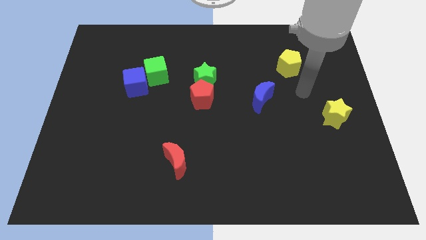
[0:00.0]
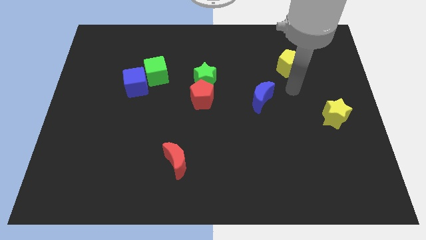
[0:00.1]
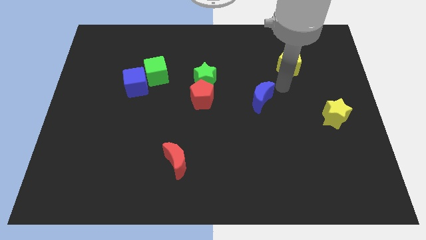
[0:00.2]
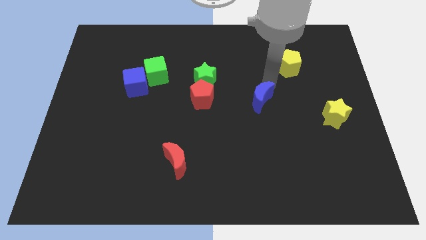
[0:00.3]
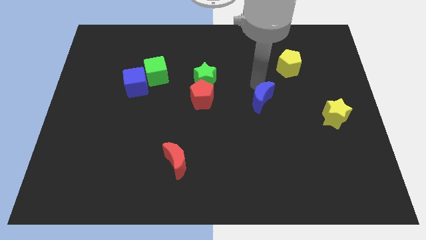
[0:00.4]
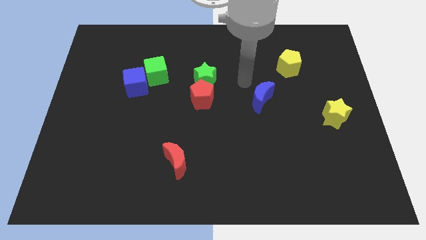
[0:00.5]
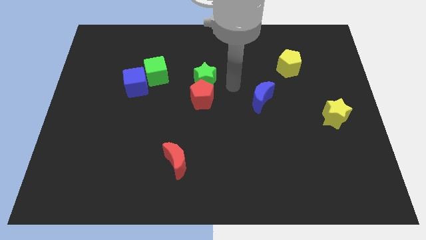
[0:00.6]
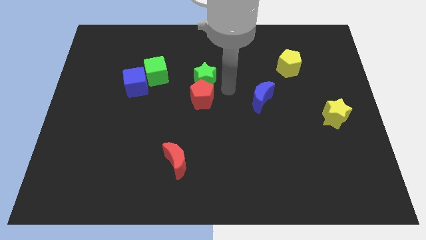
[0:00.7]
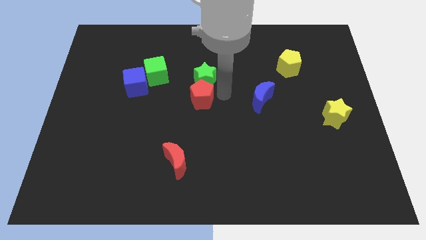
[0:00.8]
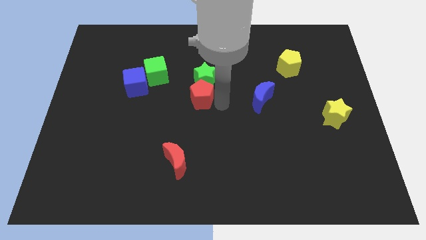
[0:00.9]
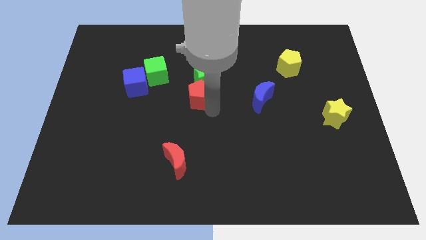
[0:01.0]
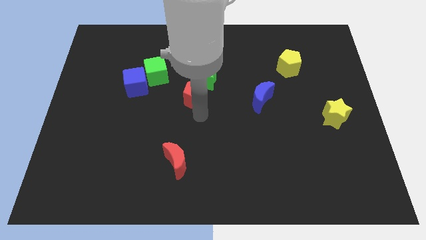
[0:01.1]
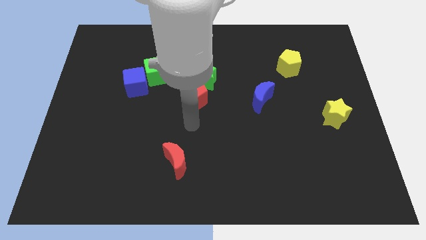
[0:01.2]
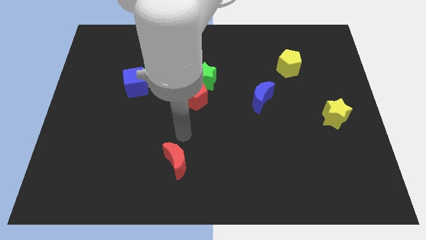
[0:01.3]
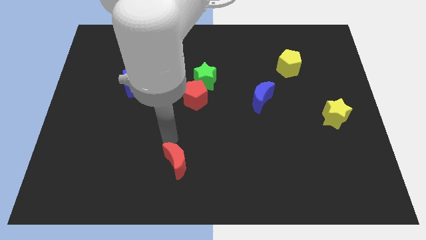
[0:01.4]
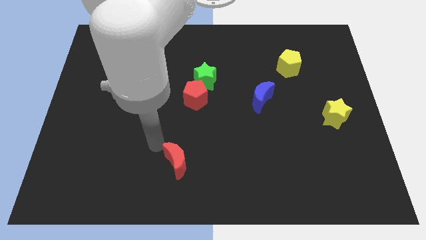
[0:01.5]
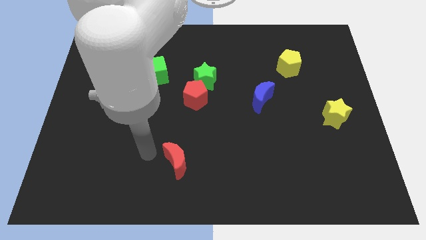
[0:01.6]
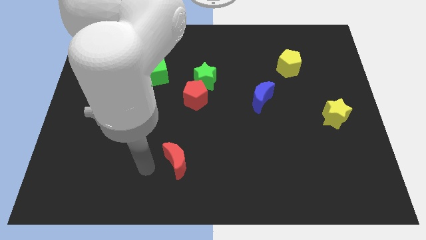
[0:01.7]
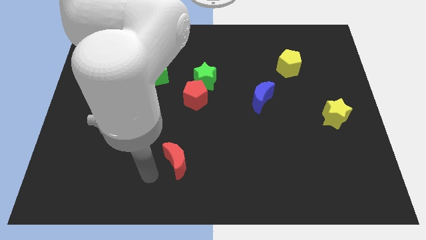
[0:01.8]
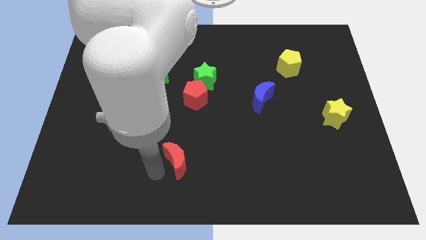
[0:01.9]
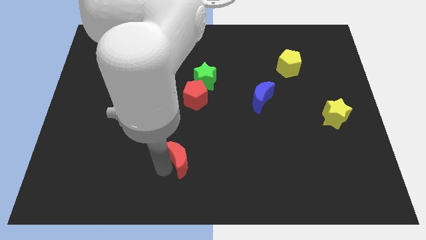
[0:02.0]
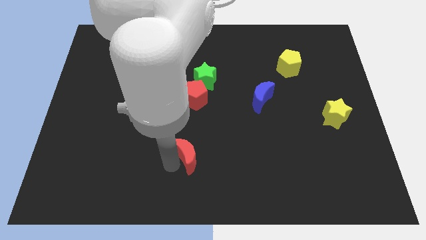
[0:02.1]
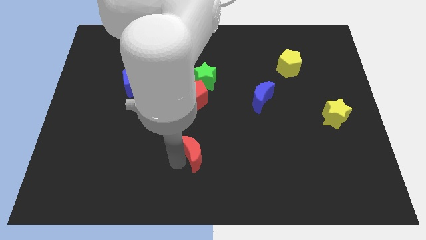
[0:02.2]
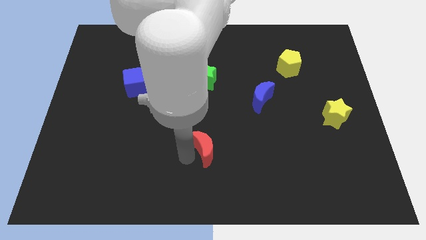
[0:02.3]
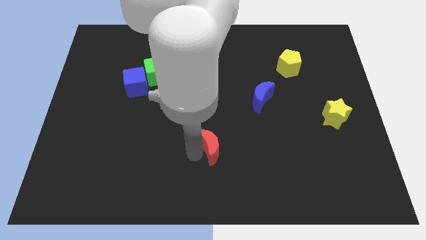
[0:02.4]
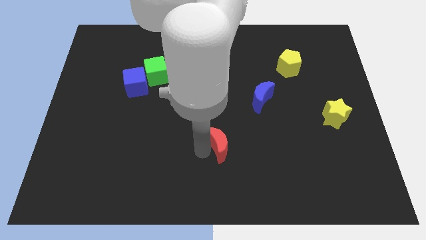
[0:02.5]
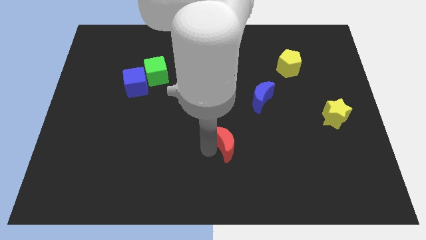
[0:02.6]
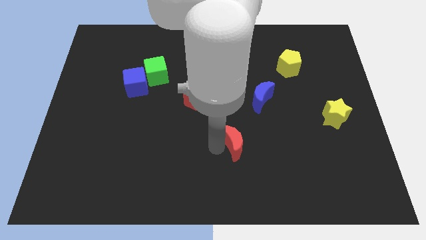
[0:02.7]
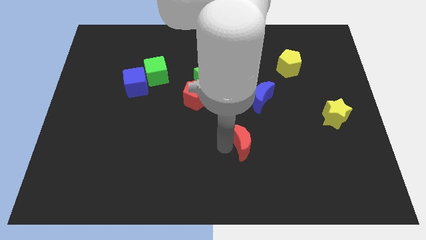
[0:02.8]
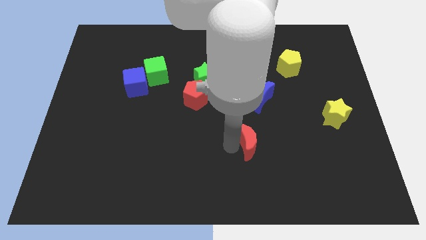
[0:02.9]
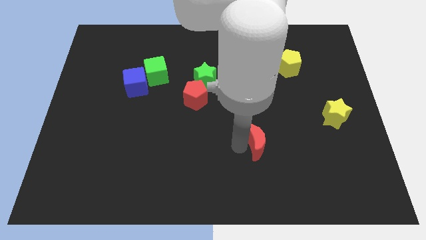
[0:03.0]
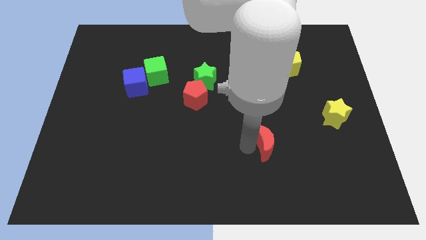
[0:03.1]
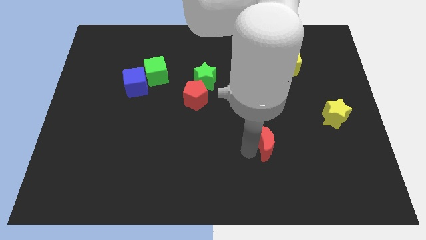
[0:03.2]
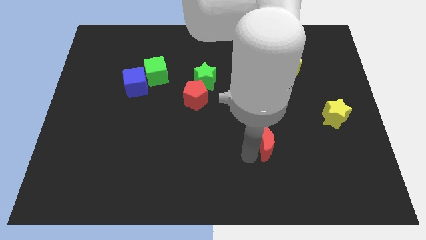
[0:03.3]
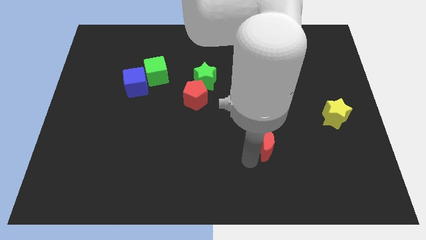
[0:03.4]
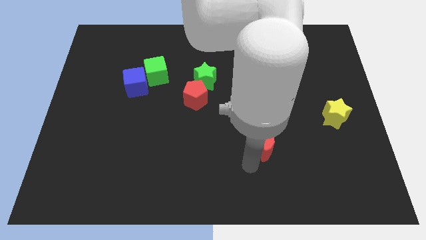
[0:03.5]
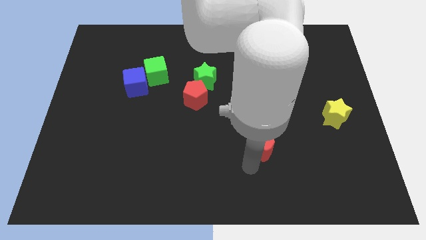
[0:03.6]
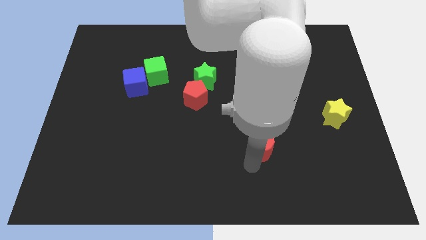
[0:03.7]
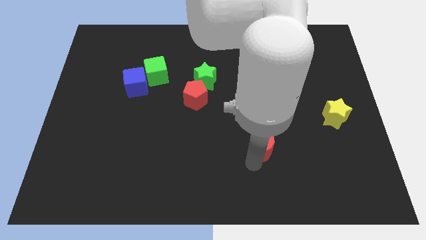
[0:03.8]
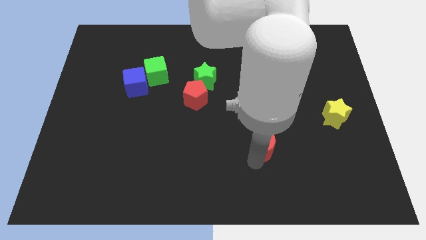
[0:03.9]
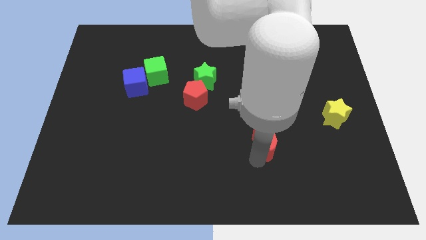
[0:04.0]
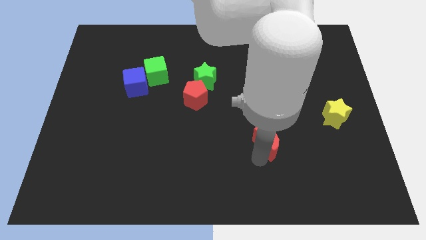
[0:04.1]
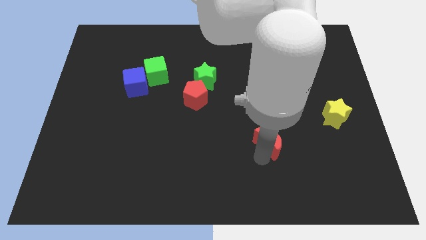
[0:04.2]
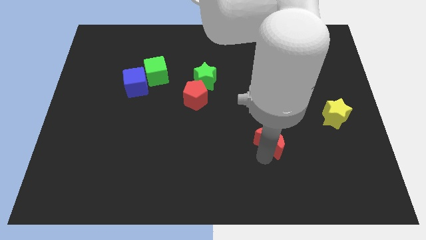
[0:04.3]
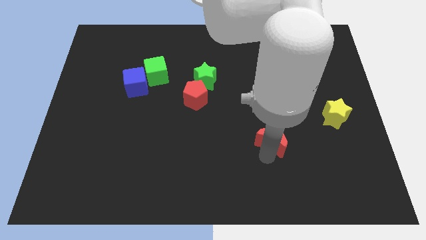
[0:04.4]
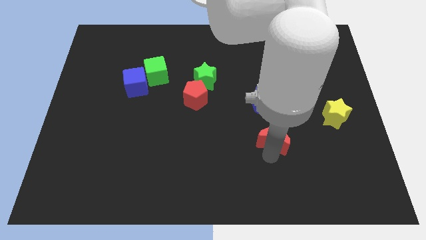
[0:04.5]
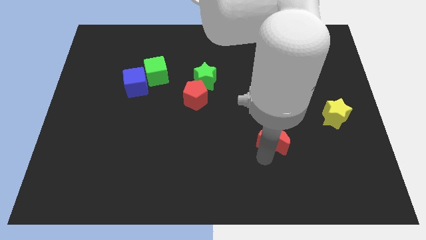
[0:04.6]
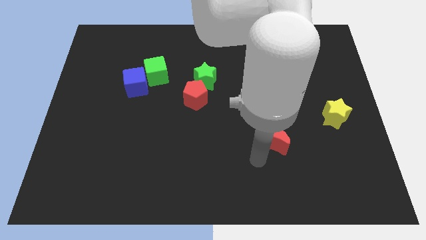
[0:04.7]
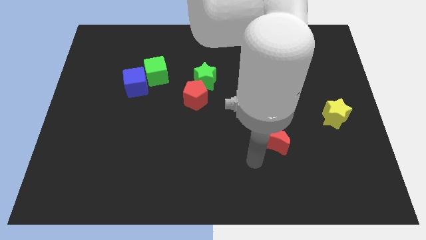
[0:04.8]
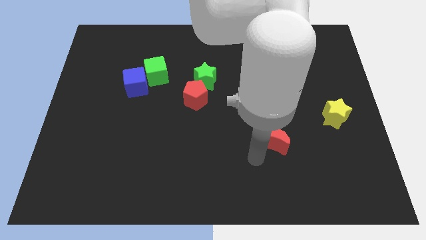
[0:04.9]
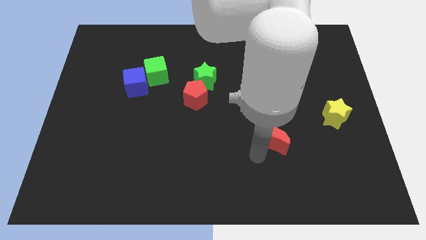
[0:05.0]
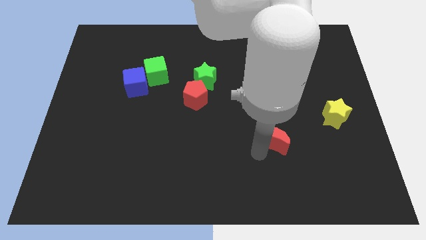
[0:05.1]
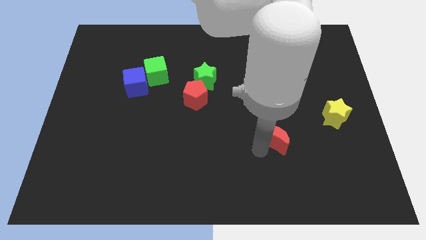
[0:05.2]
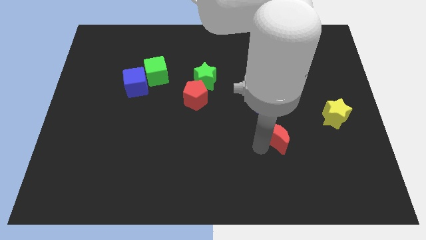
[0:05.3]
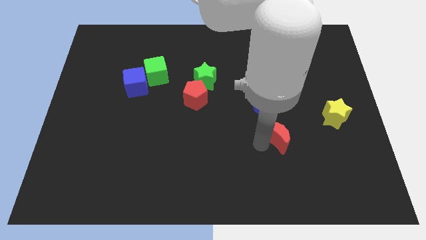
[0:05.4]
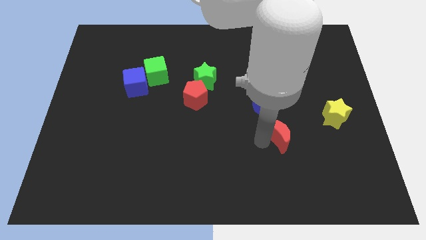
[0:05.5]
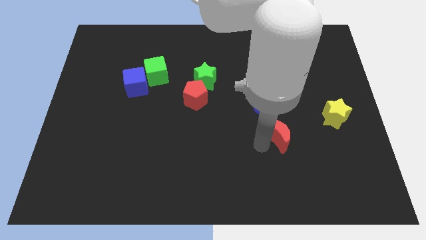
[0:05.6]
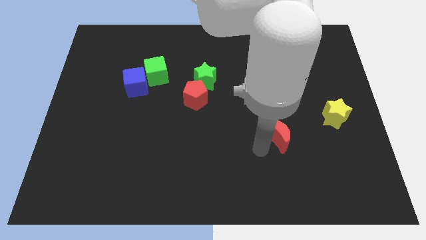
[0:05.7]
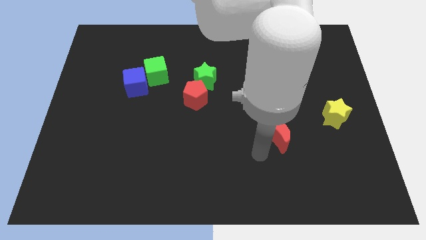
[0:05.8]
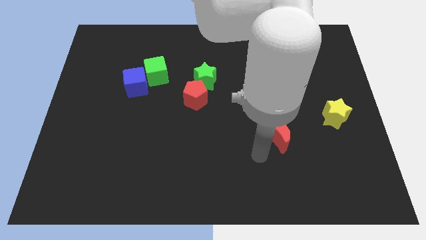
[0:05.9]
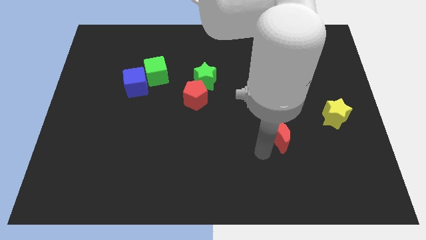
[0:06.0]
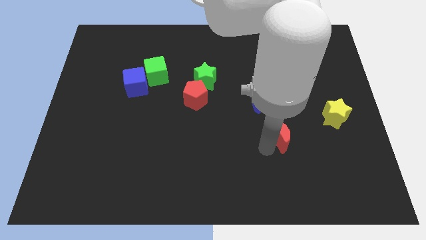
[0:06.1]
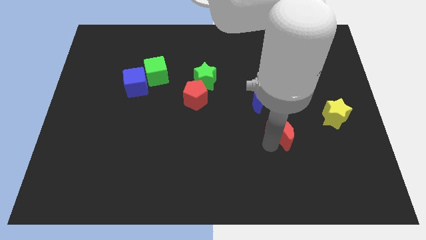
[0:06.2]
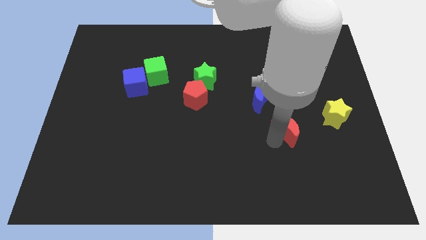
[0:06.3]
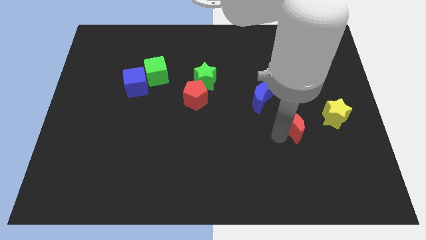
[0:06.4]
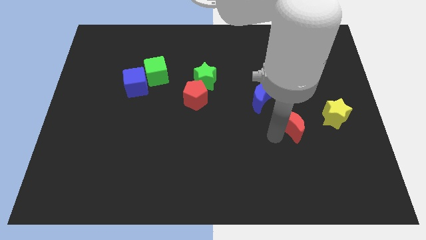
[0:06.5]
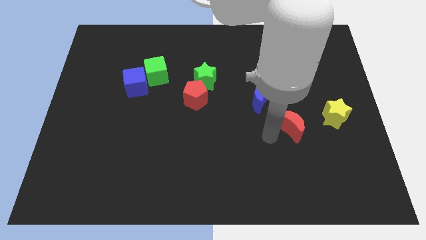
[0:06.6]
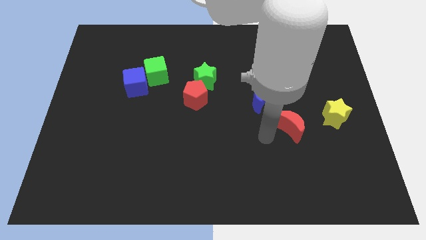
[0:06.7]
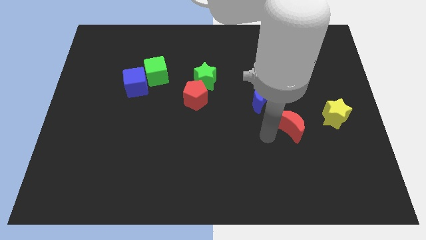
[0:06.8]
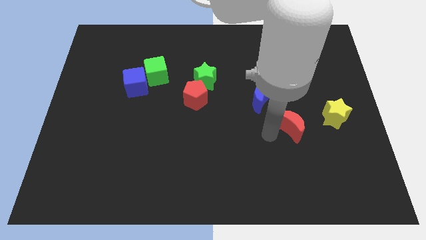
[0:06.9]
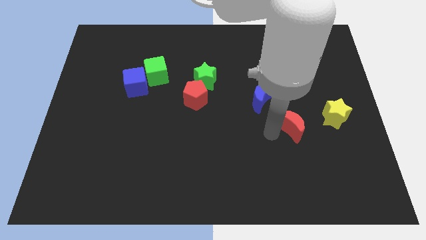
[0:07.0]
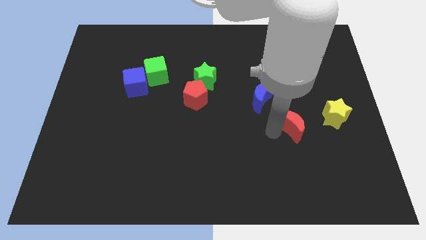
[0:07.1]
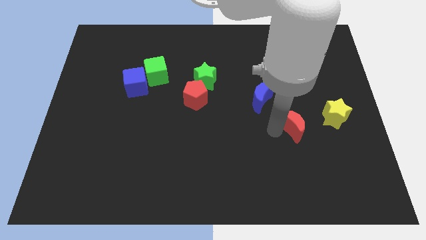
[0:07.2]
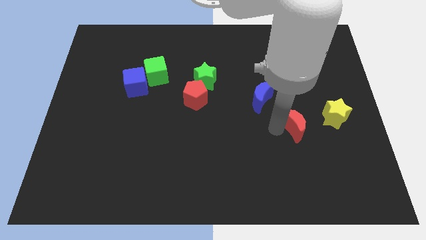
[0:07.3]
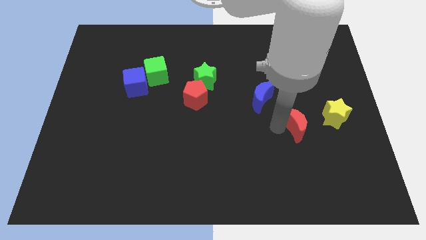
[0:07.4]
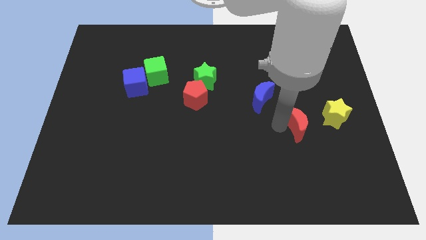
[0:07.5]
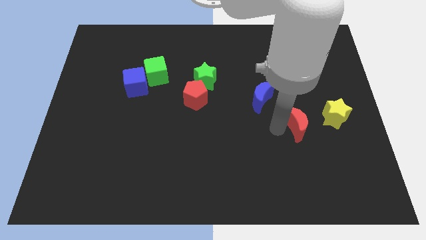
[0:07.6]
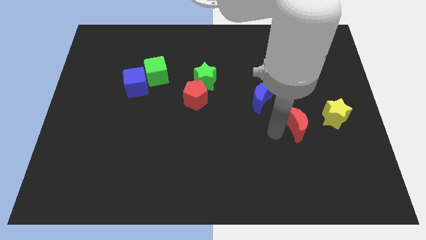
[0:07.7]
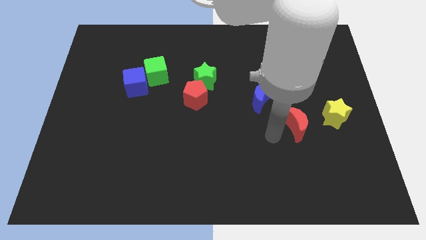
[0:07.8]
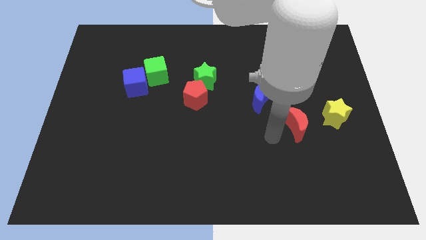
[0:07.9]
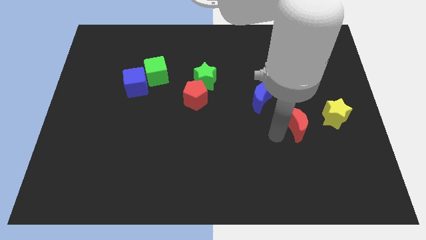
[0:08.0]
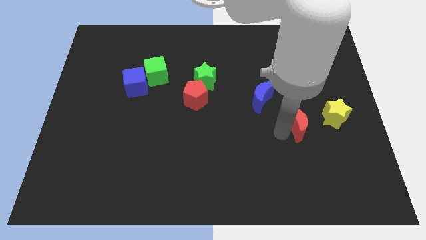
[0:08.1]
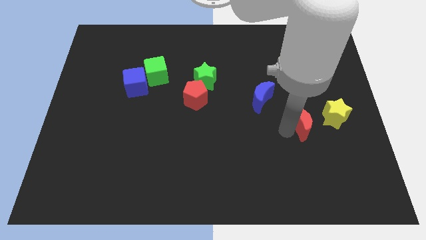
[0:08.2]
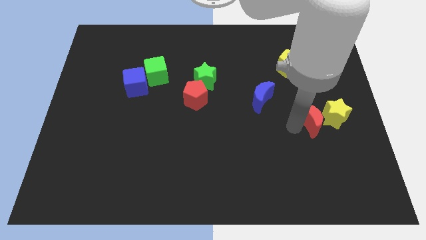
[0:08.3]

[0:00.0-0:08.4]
slide the red moon towards the yellow star
